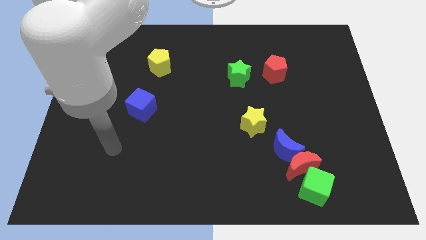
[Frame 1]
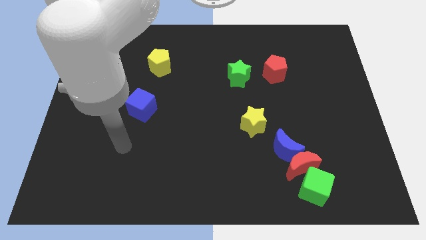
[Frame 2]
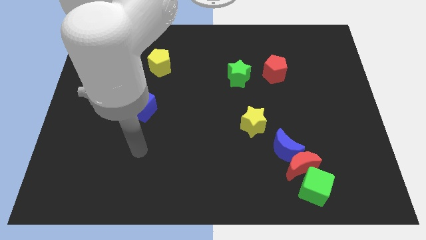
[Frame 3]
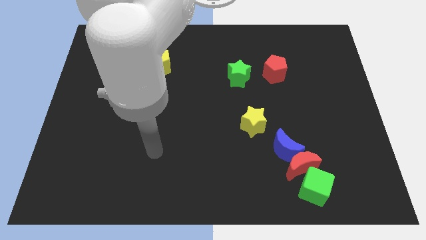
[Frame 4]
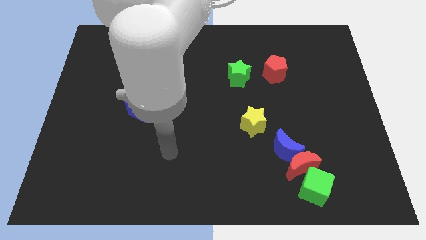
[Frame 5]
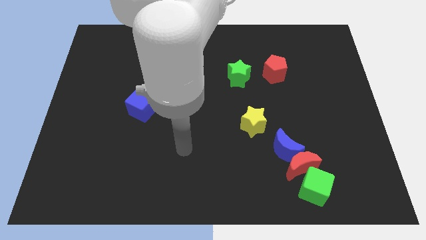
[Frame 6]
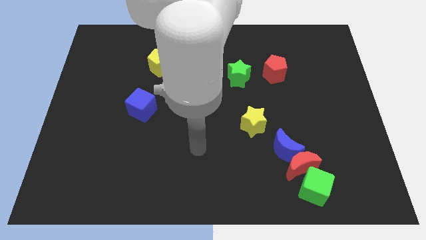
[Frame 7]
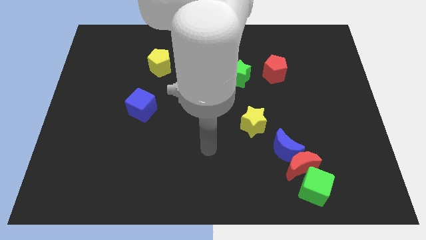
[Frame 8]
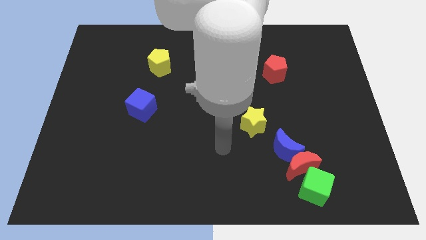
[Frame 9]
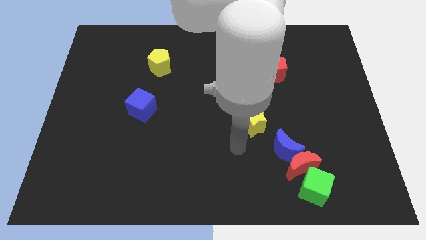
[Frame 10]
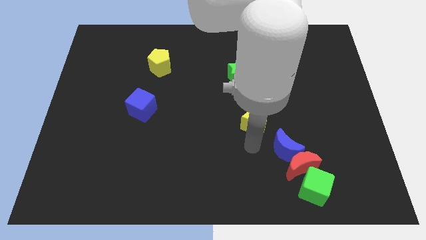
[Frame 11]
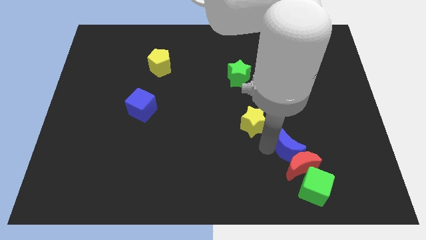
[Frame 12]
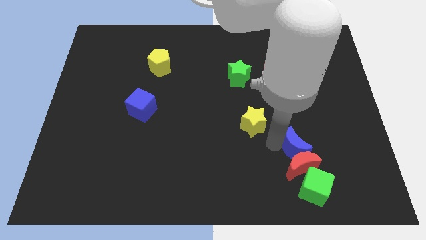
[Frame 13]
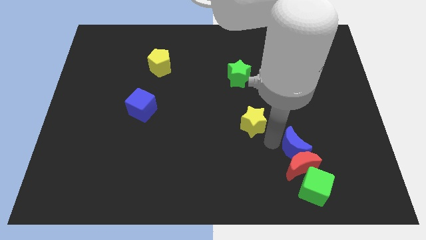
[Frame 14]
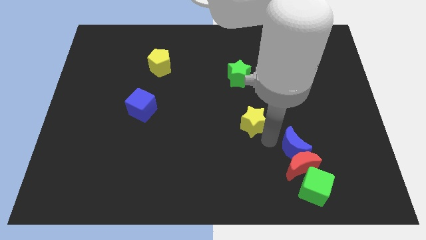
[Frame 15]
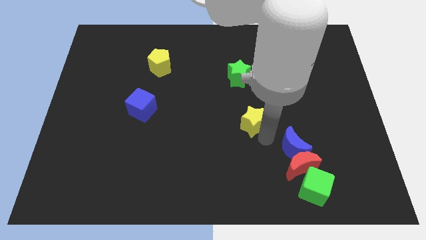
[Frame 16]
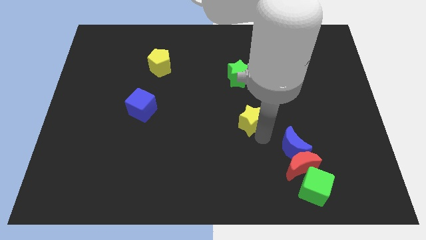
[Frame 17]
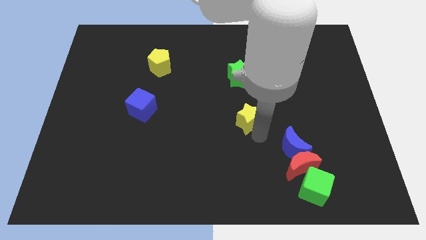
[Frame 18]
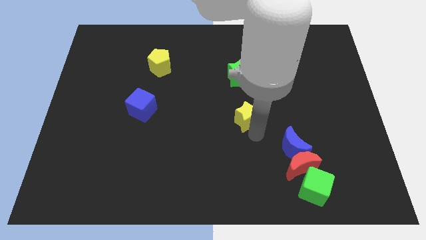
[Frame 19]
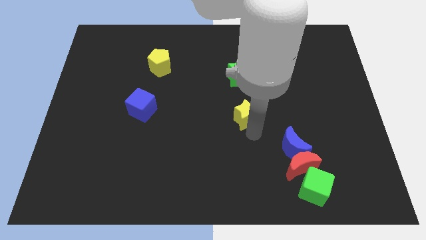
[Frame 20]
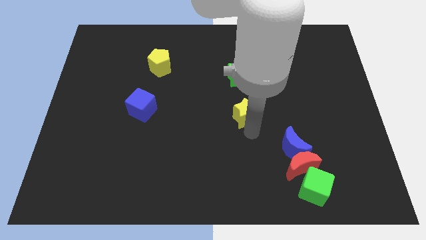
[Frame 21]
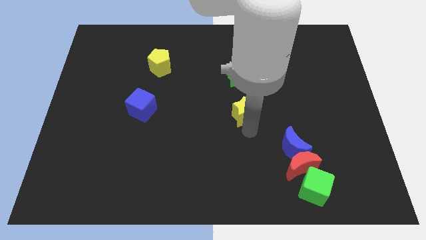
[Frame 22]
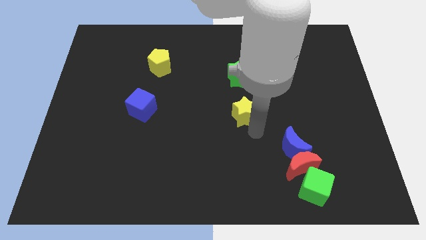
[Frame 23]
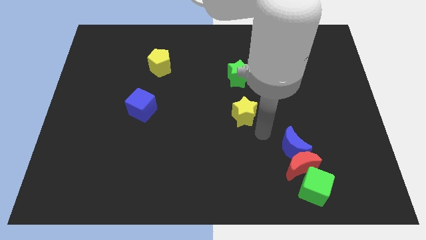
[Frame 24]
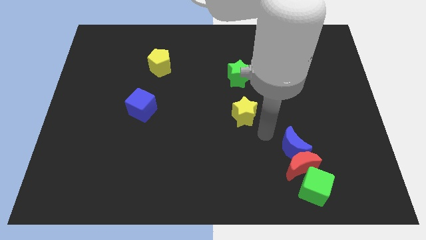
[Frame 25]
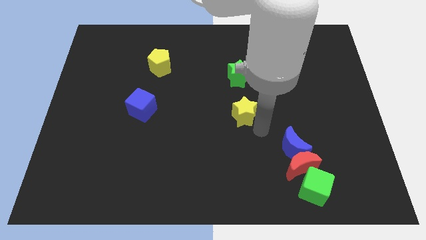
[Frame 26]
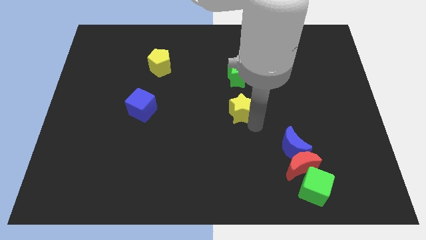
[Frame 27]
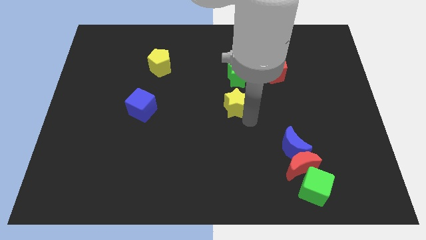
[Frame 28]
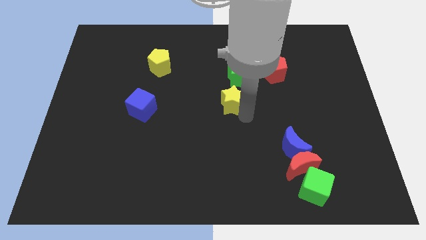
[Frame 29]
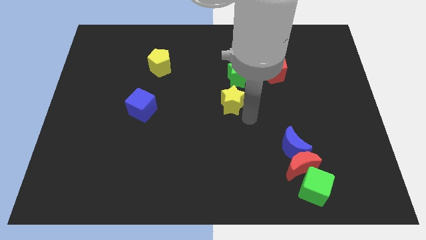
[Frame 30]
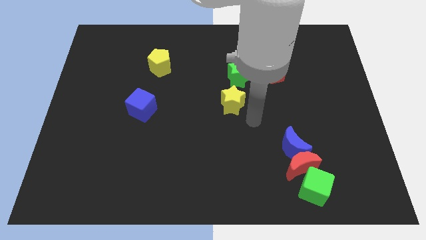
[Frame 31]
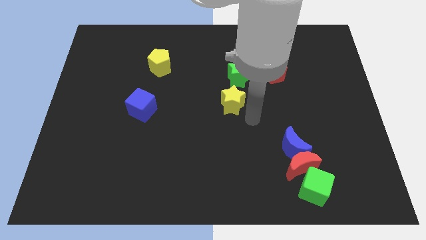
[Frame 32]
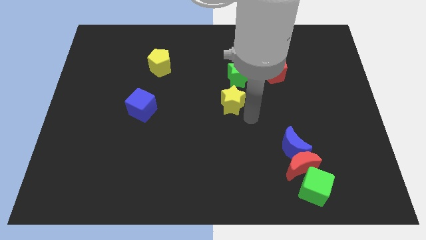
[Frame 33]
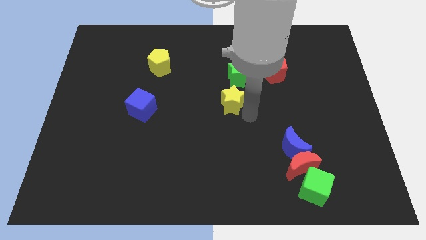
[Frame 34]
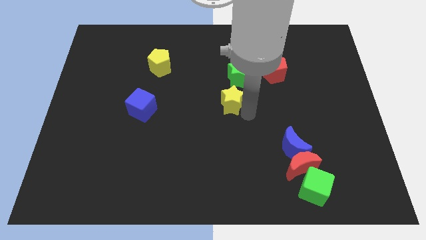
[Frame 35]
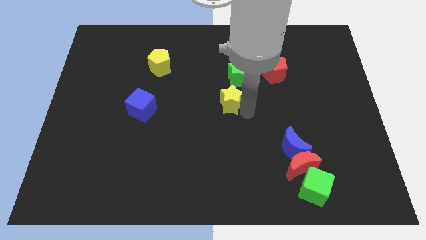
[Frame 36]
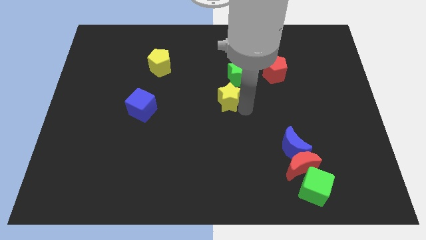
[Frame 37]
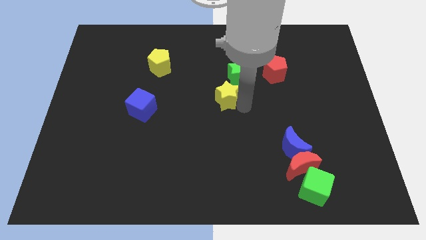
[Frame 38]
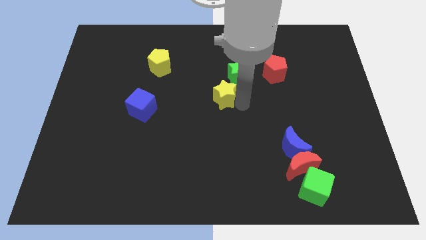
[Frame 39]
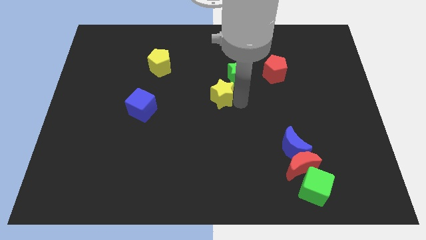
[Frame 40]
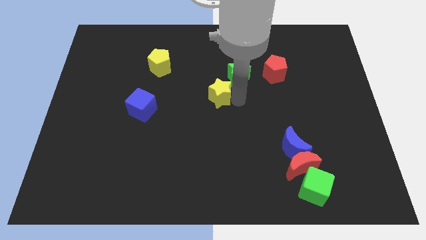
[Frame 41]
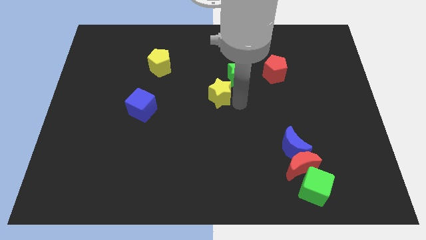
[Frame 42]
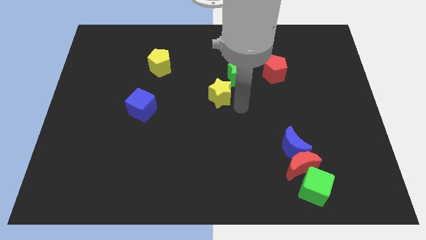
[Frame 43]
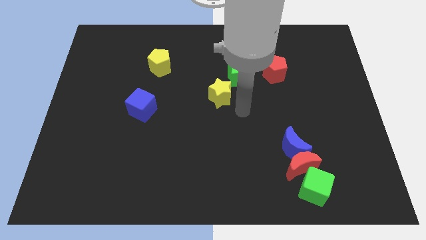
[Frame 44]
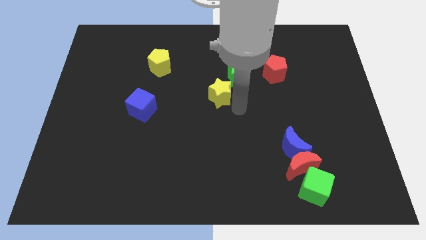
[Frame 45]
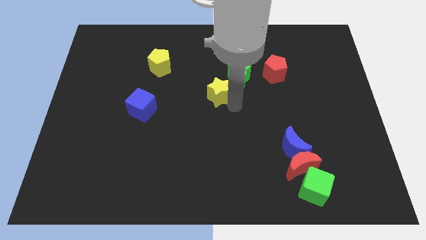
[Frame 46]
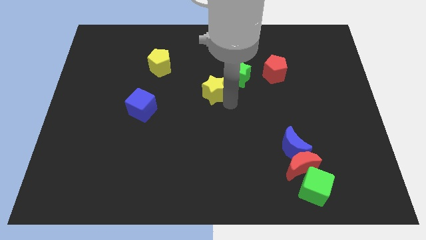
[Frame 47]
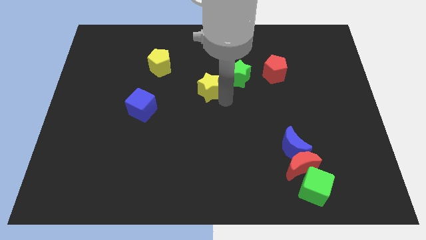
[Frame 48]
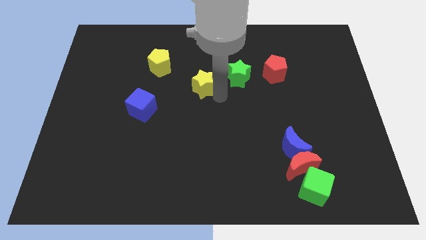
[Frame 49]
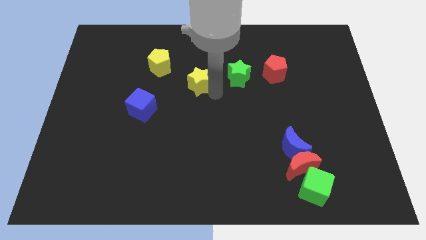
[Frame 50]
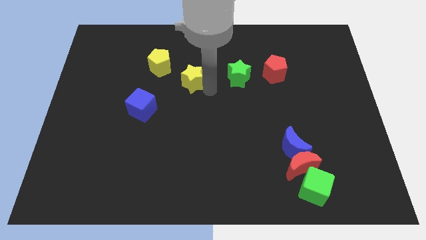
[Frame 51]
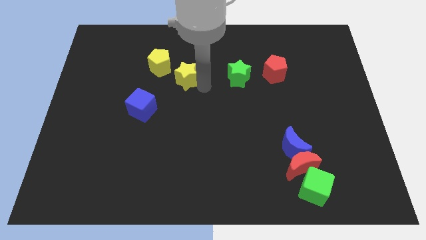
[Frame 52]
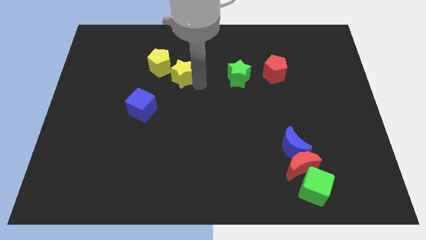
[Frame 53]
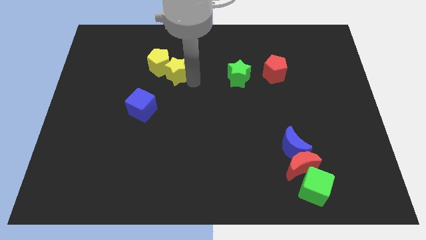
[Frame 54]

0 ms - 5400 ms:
move the yellow star to the yellow pentagon

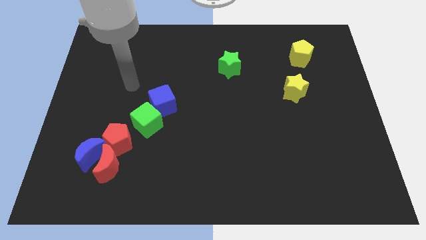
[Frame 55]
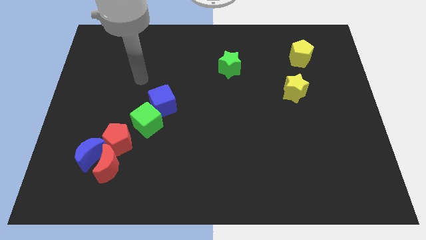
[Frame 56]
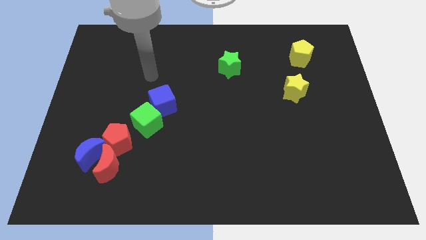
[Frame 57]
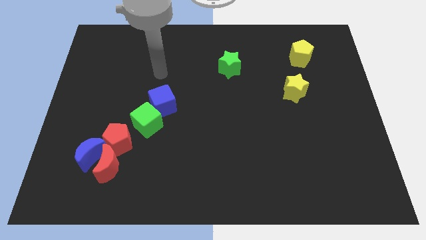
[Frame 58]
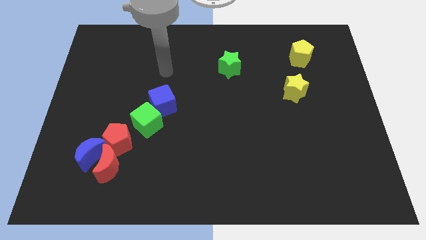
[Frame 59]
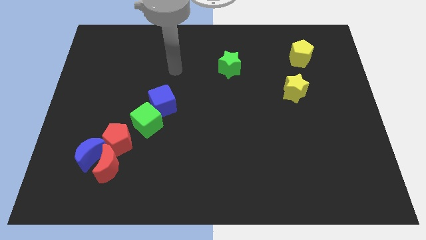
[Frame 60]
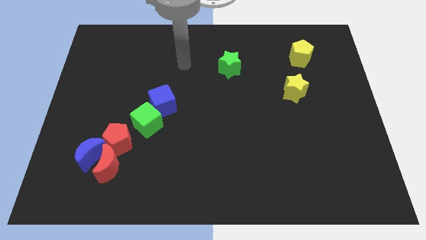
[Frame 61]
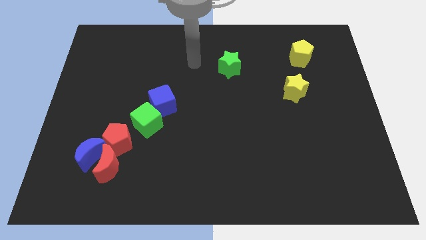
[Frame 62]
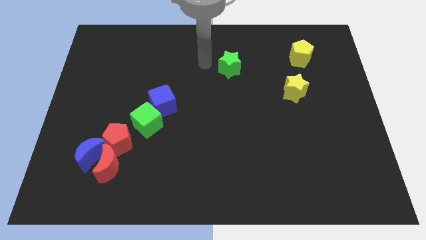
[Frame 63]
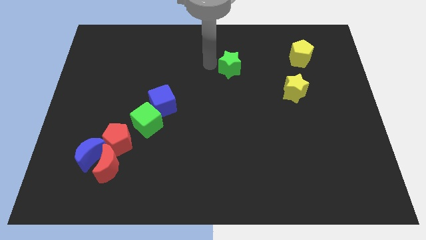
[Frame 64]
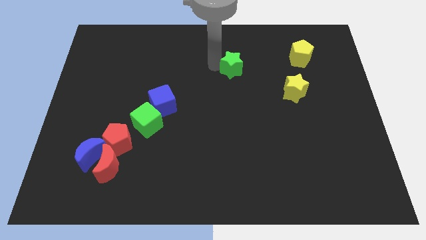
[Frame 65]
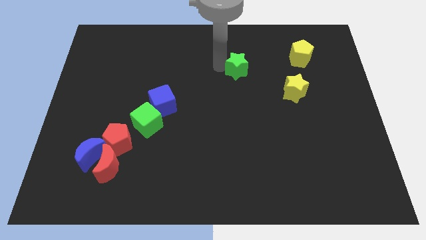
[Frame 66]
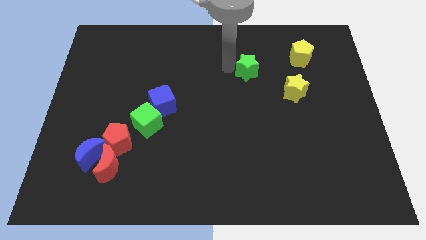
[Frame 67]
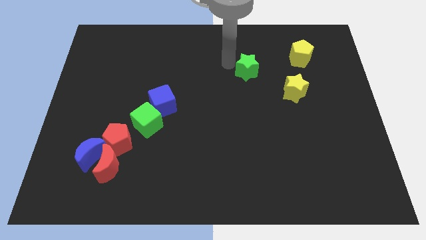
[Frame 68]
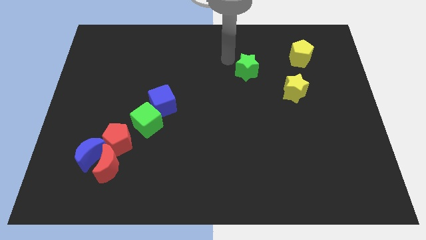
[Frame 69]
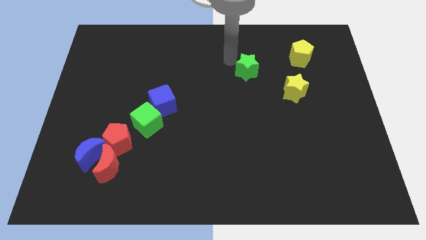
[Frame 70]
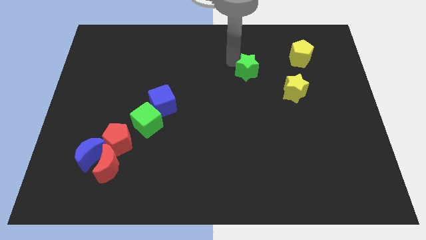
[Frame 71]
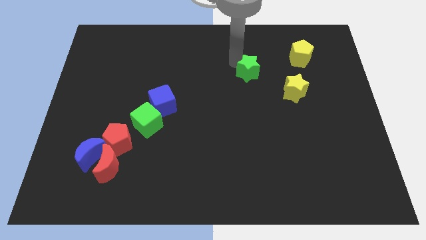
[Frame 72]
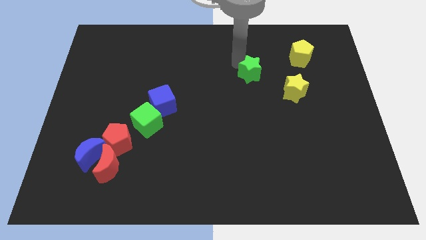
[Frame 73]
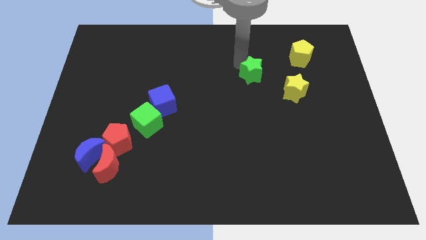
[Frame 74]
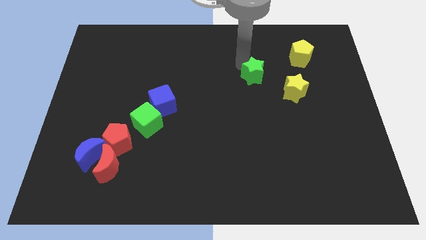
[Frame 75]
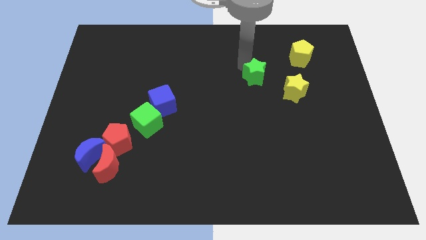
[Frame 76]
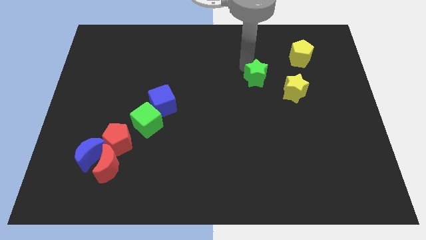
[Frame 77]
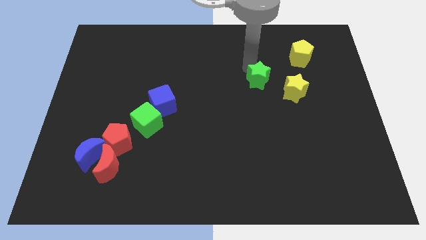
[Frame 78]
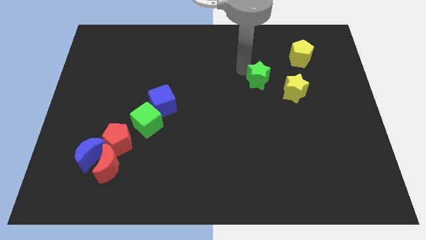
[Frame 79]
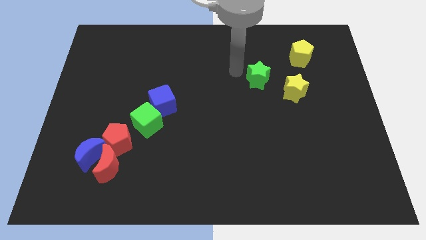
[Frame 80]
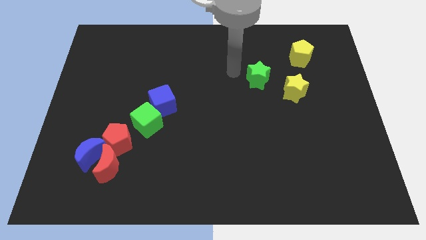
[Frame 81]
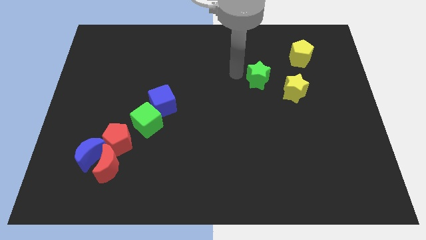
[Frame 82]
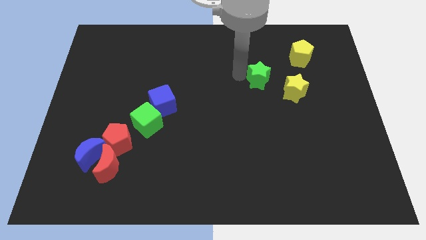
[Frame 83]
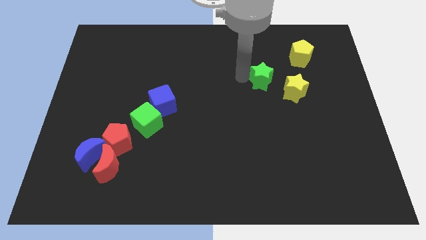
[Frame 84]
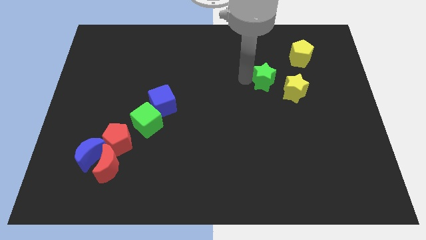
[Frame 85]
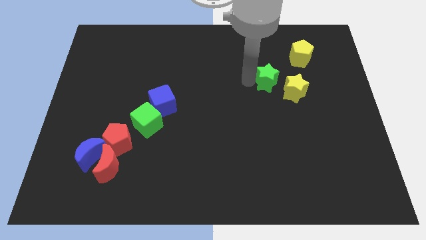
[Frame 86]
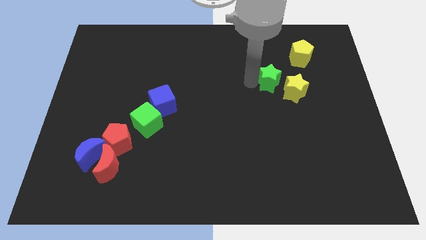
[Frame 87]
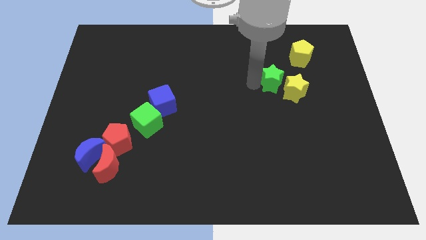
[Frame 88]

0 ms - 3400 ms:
slide the green star towards the yellow star
